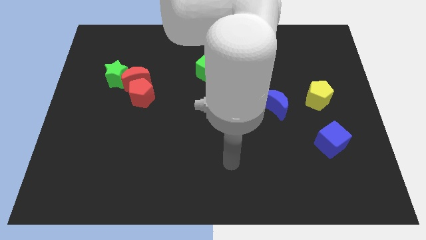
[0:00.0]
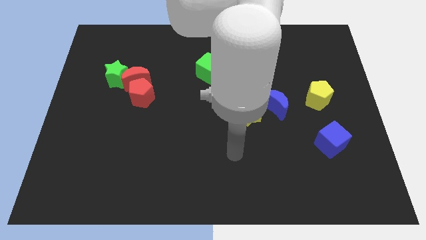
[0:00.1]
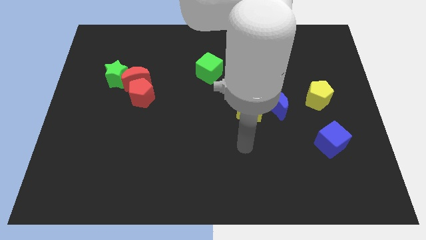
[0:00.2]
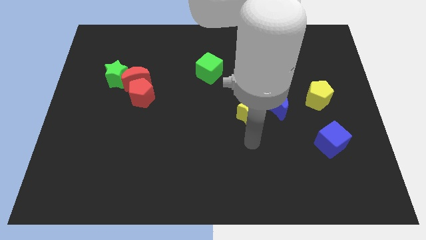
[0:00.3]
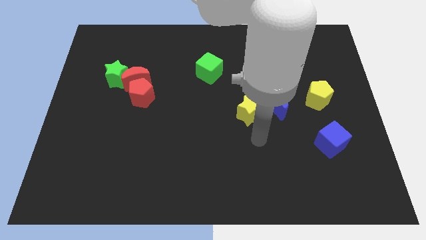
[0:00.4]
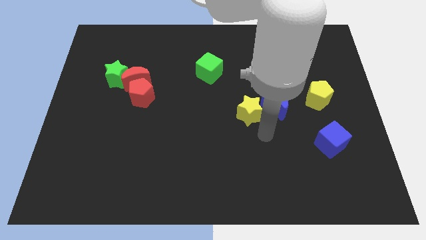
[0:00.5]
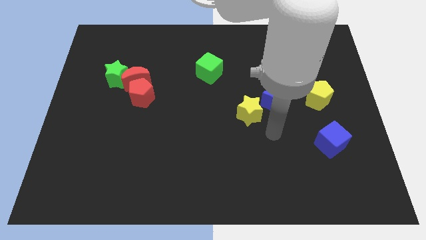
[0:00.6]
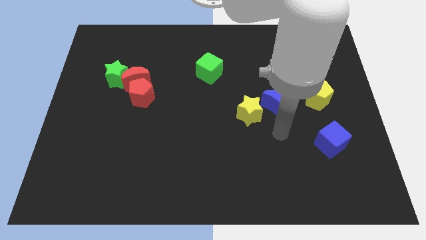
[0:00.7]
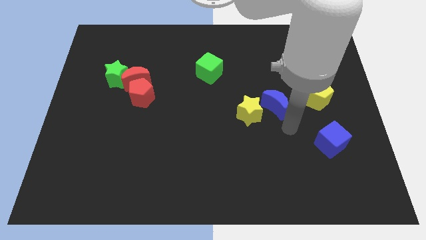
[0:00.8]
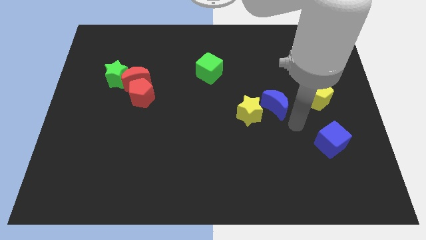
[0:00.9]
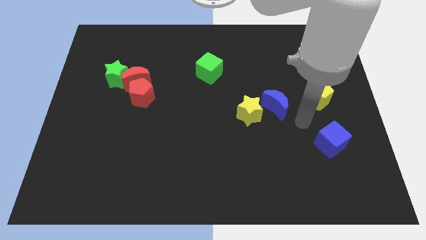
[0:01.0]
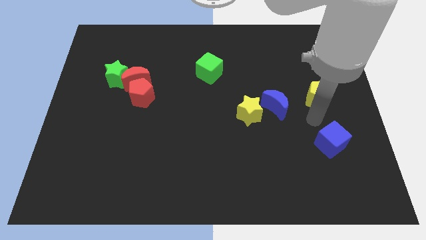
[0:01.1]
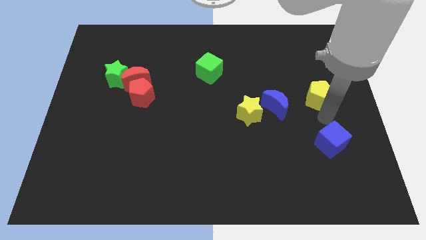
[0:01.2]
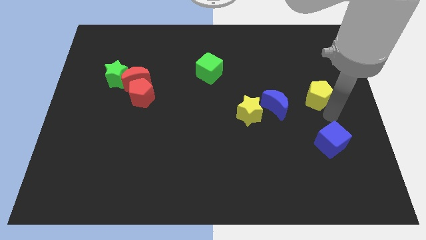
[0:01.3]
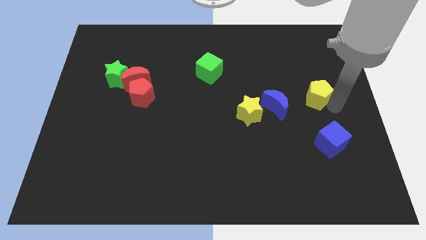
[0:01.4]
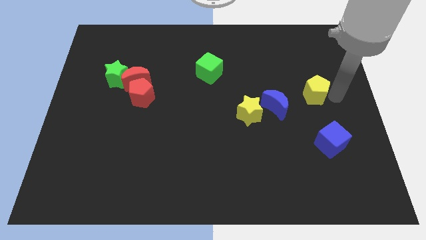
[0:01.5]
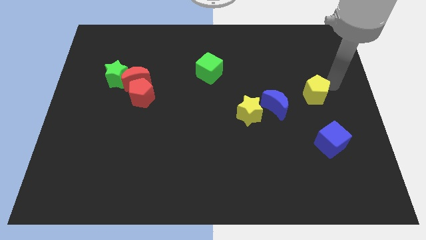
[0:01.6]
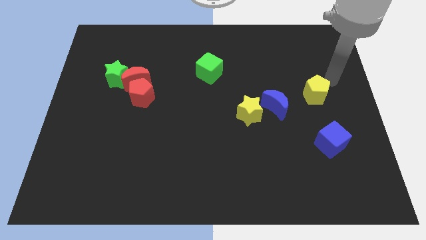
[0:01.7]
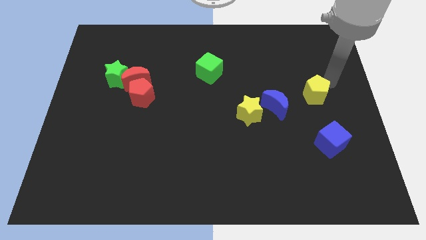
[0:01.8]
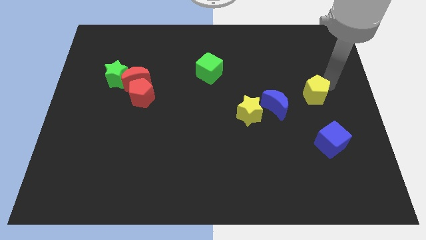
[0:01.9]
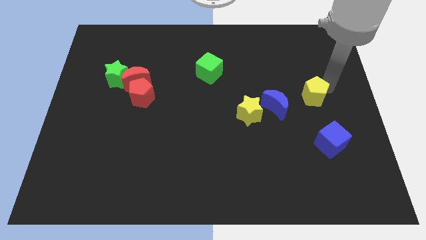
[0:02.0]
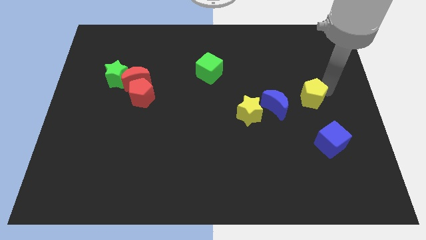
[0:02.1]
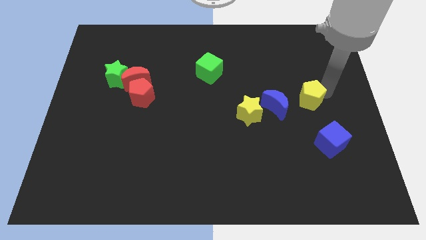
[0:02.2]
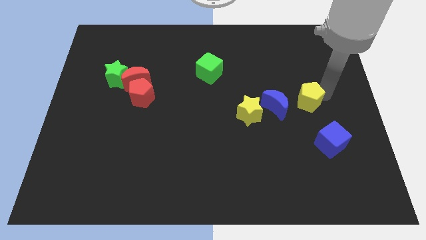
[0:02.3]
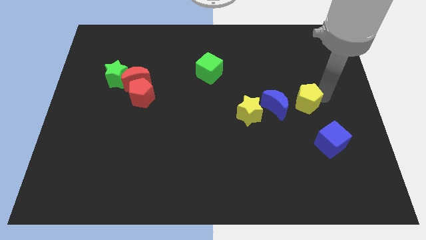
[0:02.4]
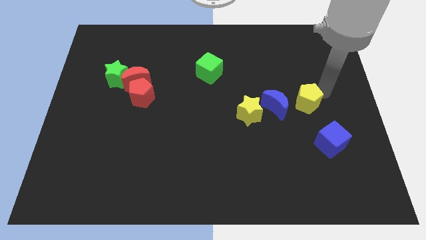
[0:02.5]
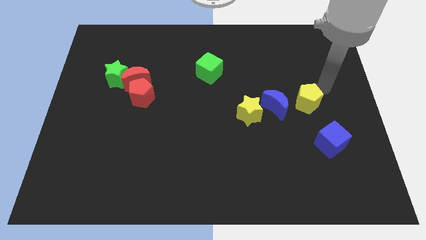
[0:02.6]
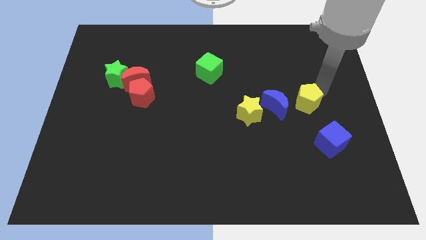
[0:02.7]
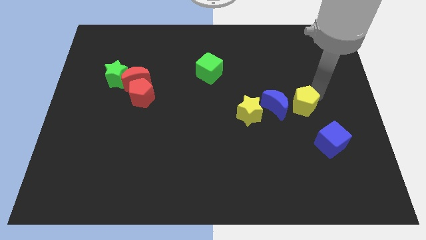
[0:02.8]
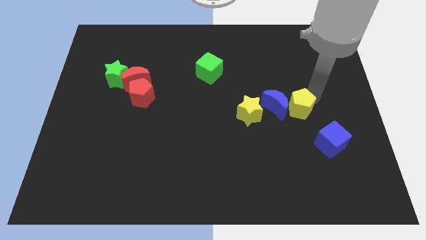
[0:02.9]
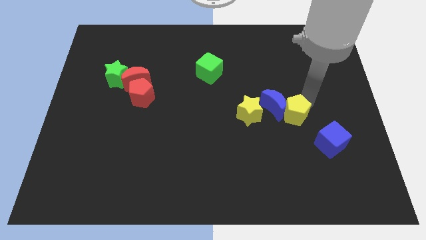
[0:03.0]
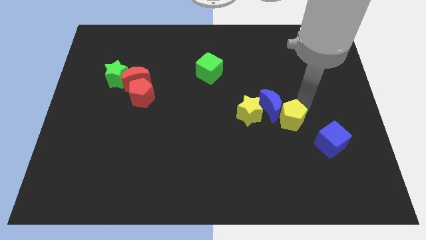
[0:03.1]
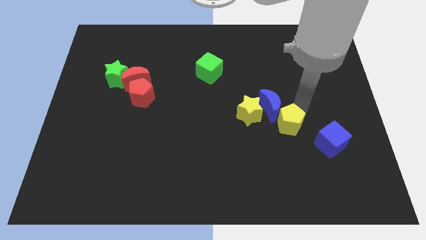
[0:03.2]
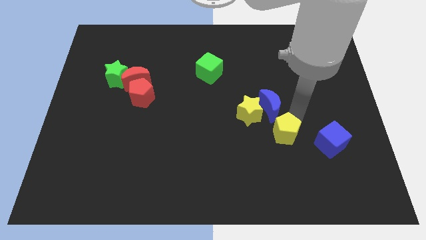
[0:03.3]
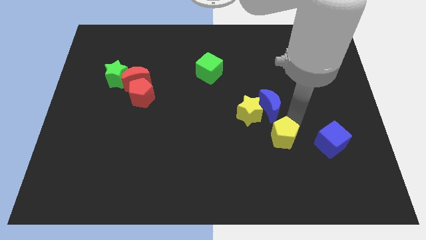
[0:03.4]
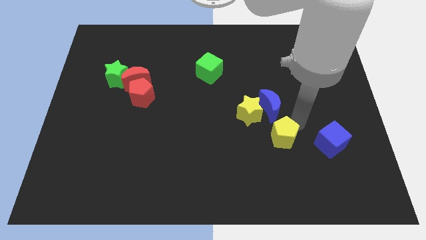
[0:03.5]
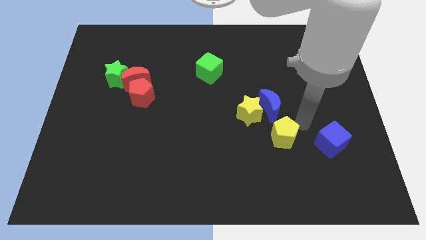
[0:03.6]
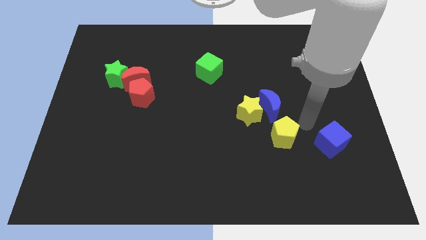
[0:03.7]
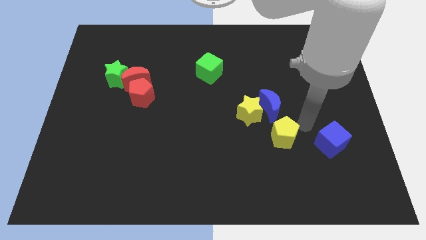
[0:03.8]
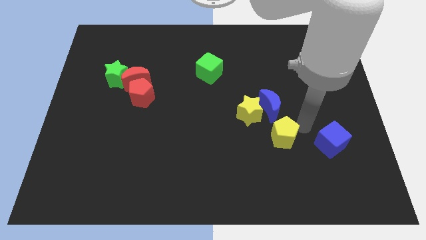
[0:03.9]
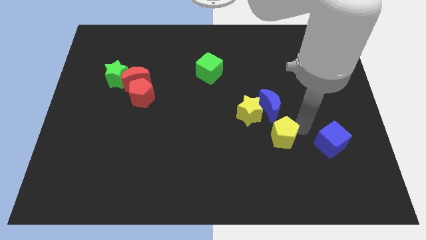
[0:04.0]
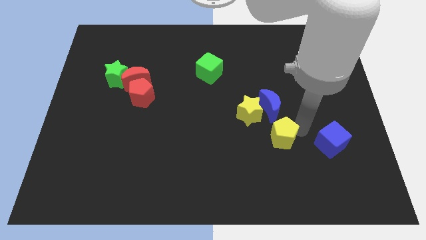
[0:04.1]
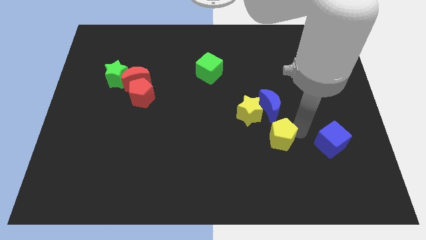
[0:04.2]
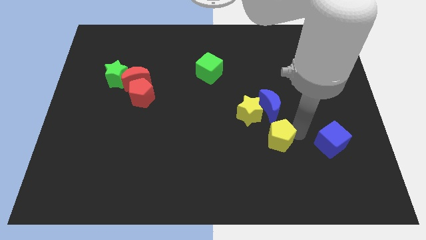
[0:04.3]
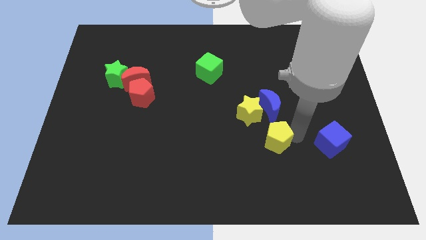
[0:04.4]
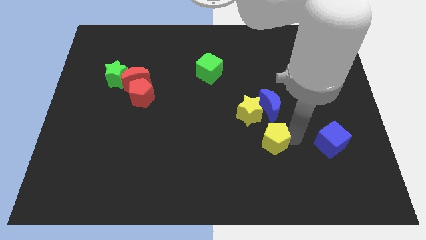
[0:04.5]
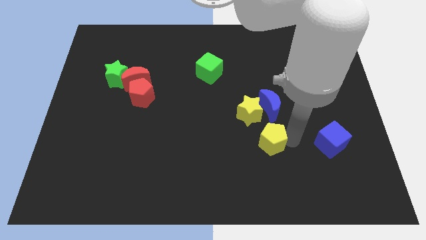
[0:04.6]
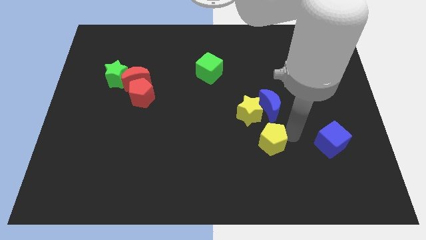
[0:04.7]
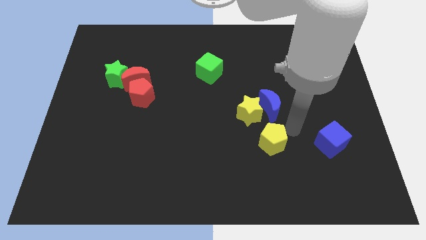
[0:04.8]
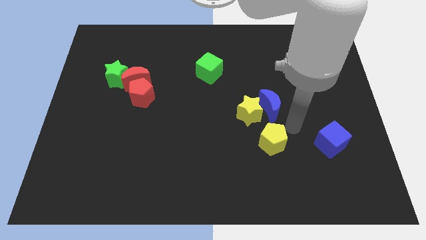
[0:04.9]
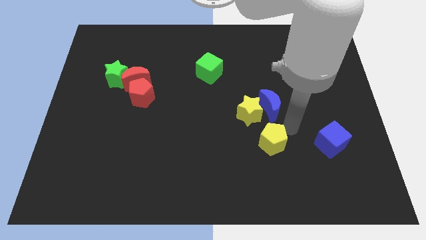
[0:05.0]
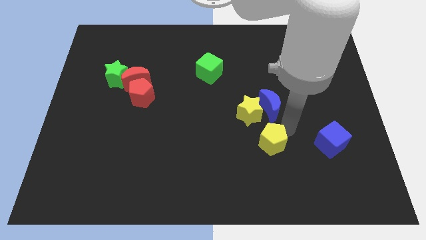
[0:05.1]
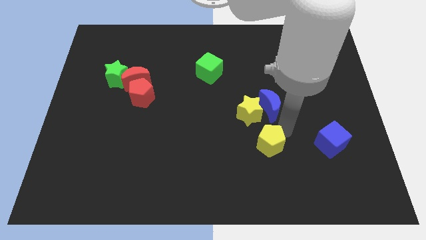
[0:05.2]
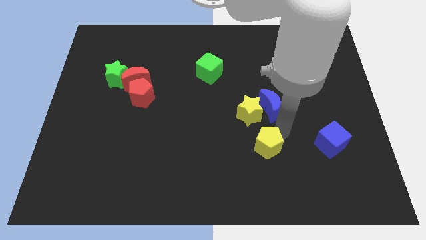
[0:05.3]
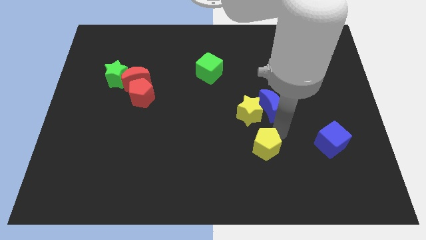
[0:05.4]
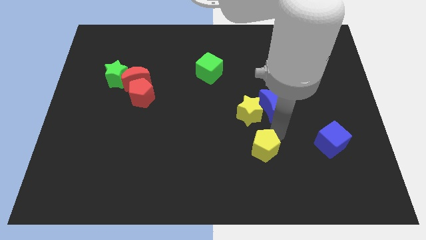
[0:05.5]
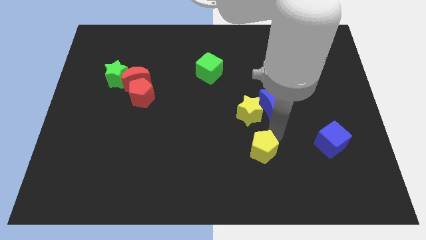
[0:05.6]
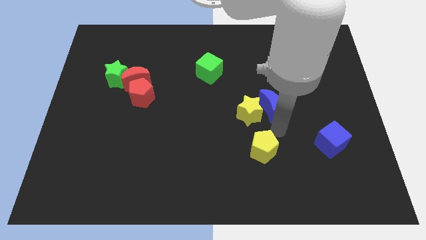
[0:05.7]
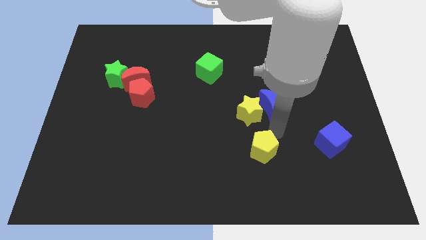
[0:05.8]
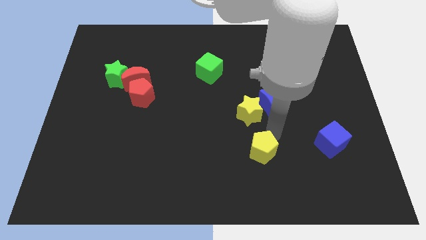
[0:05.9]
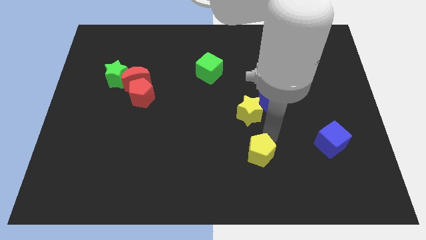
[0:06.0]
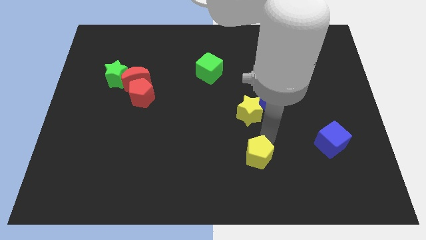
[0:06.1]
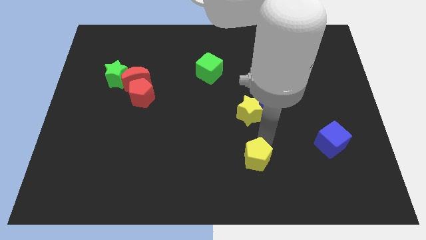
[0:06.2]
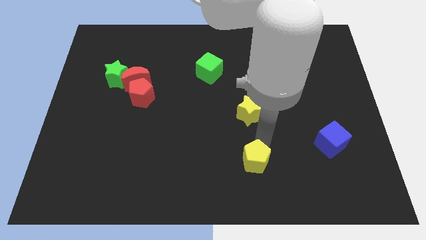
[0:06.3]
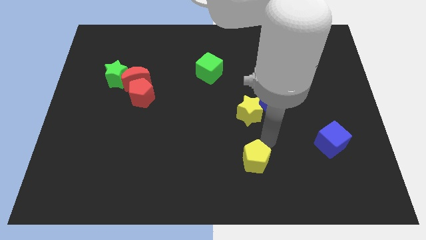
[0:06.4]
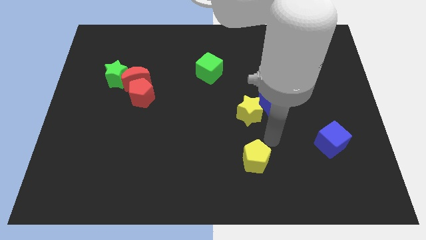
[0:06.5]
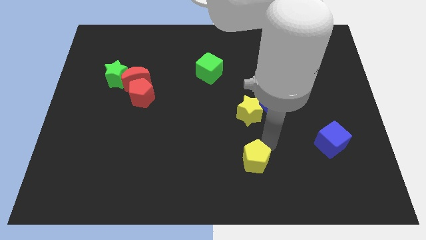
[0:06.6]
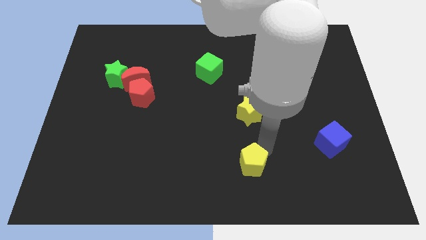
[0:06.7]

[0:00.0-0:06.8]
move the yellow pentagon to the bottom

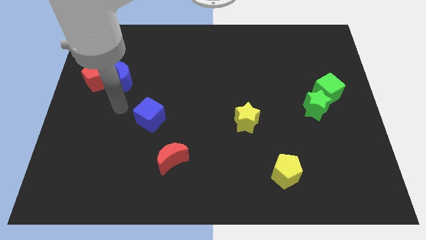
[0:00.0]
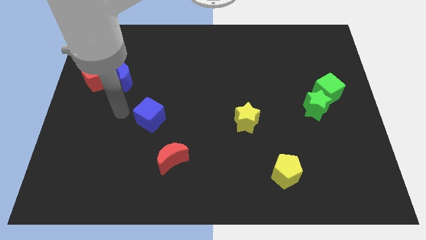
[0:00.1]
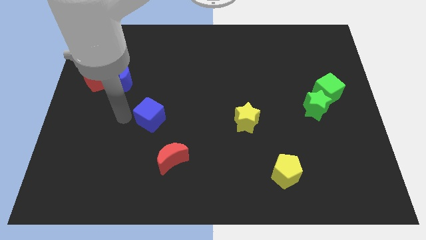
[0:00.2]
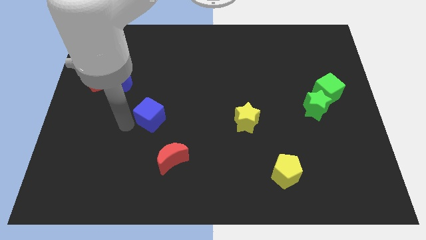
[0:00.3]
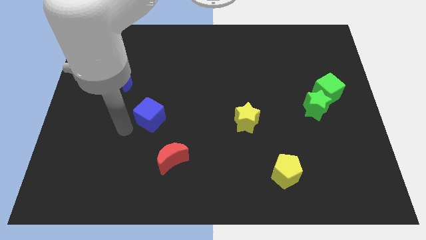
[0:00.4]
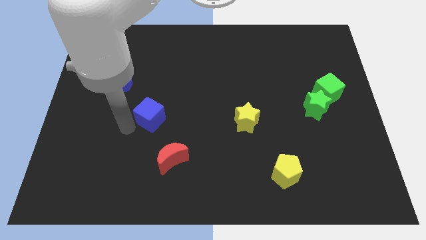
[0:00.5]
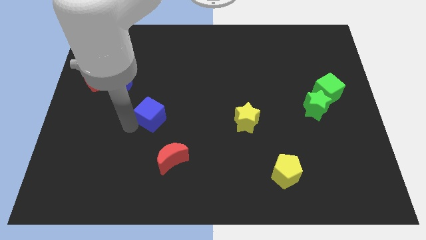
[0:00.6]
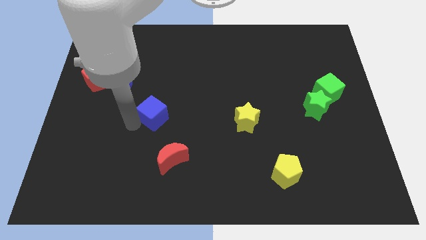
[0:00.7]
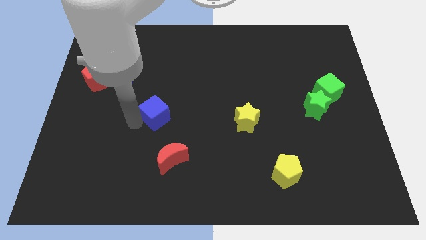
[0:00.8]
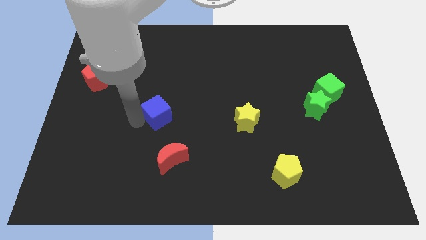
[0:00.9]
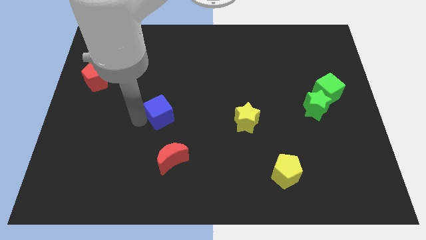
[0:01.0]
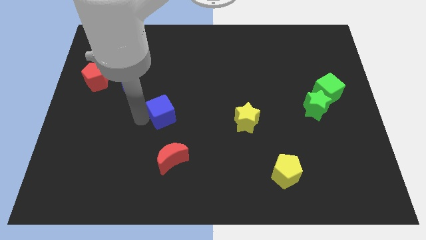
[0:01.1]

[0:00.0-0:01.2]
push the blue cube to the center of the board
